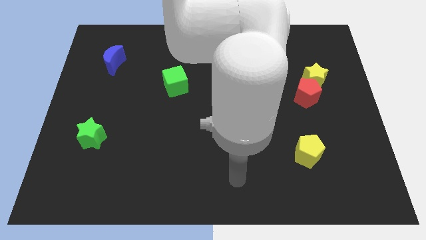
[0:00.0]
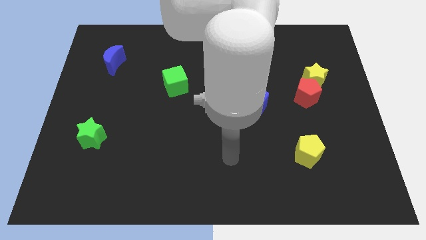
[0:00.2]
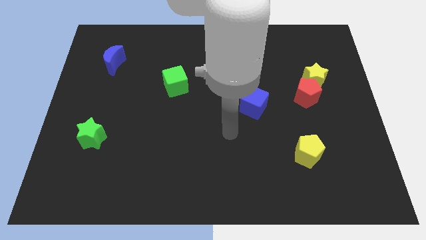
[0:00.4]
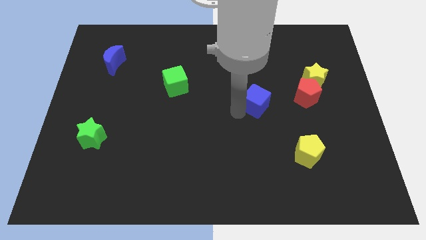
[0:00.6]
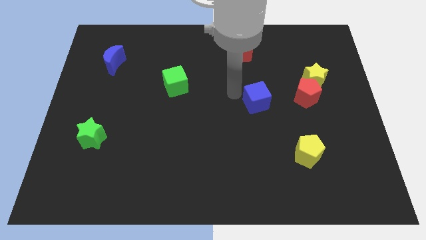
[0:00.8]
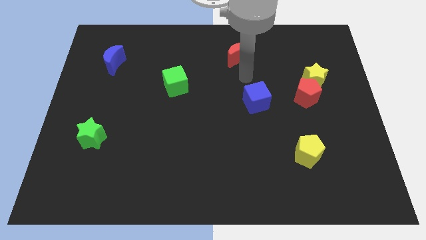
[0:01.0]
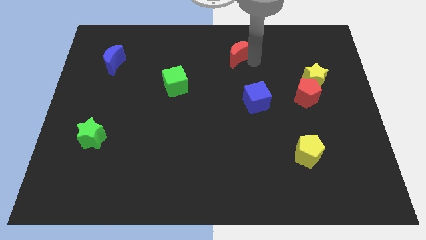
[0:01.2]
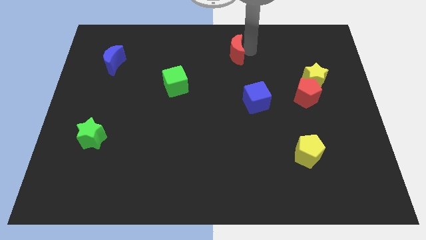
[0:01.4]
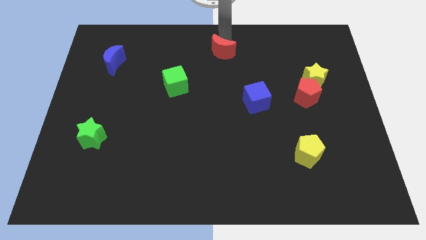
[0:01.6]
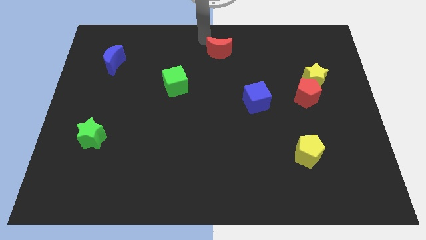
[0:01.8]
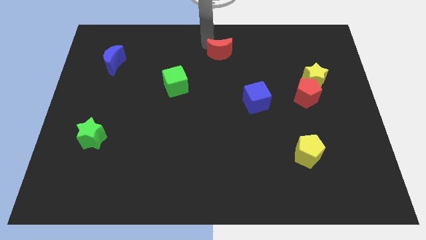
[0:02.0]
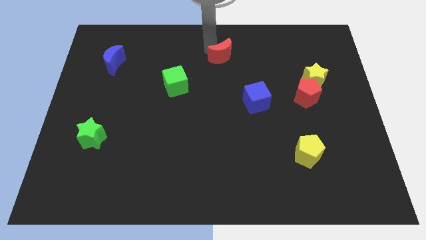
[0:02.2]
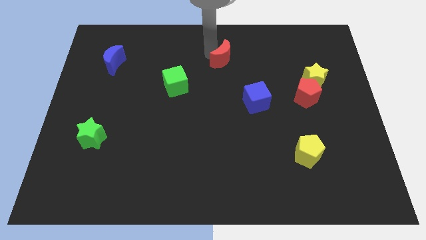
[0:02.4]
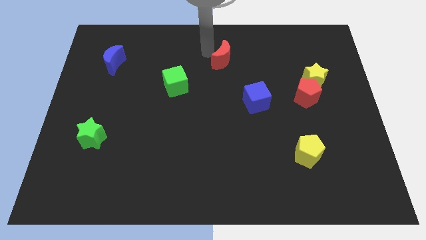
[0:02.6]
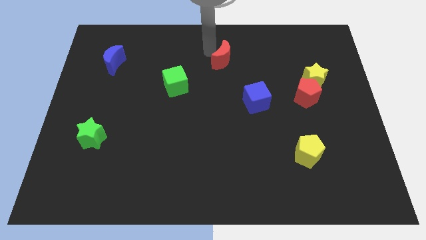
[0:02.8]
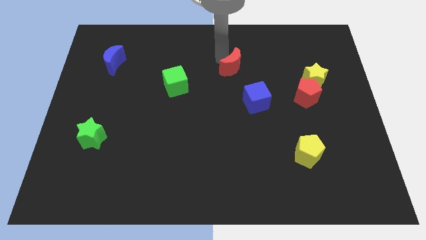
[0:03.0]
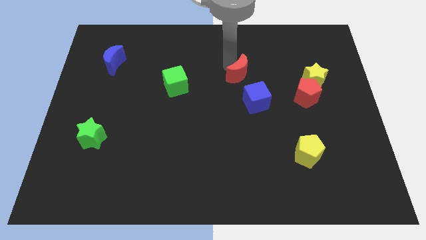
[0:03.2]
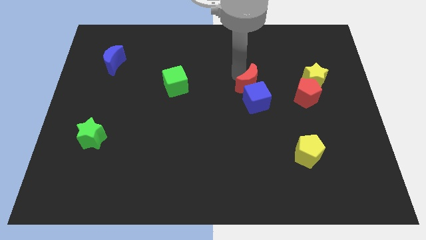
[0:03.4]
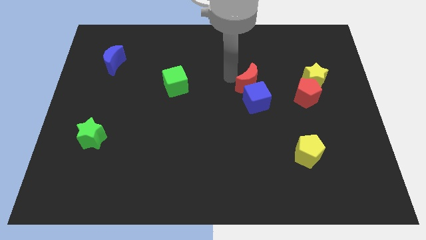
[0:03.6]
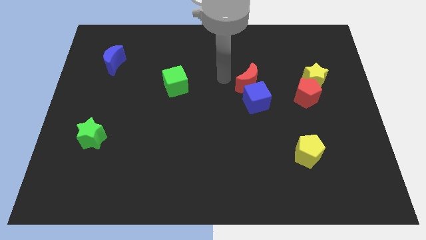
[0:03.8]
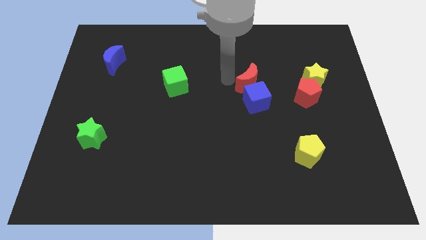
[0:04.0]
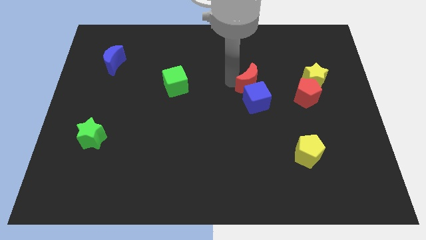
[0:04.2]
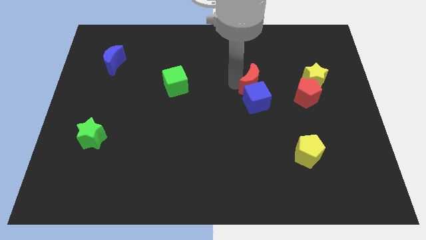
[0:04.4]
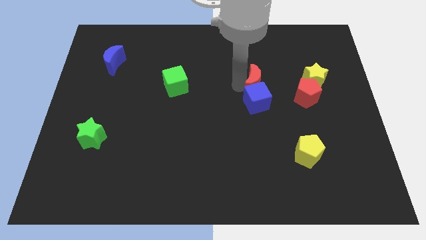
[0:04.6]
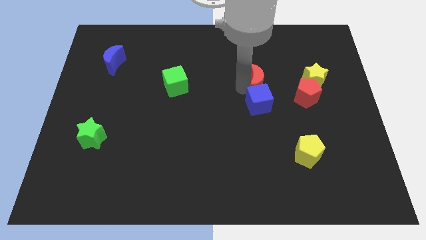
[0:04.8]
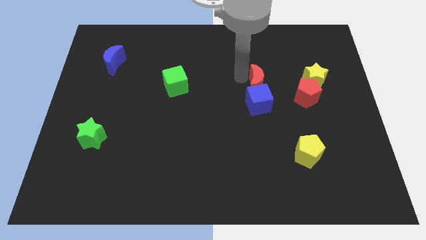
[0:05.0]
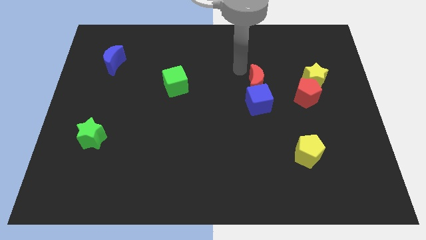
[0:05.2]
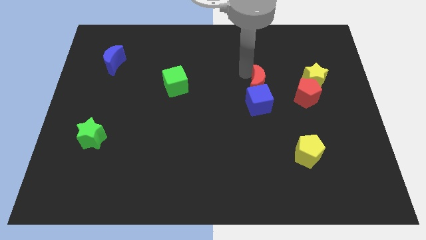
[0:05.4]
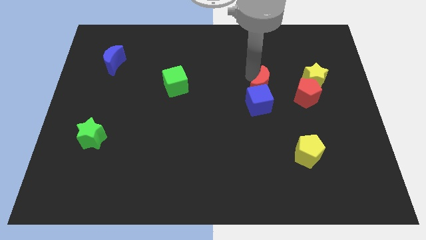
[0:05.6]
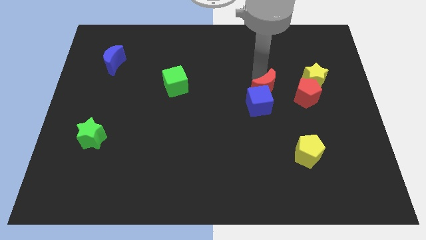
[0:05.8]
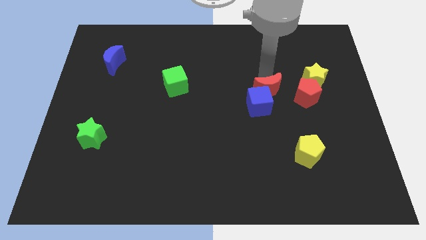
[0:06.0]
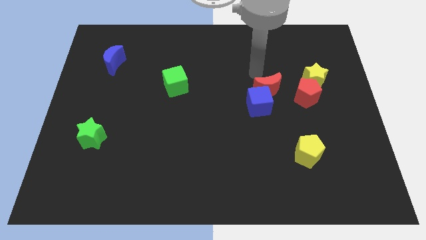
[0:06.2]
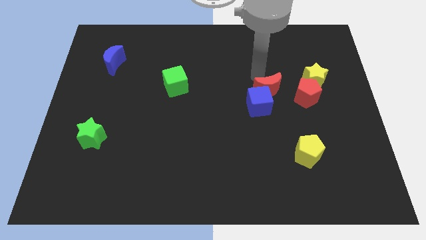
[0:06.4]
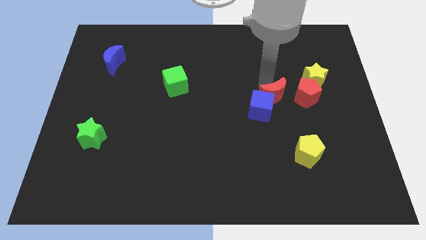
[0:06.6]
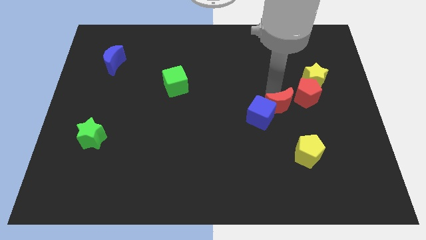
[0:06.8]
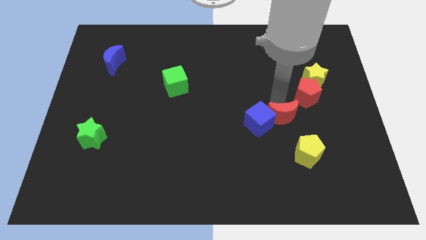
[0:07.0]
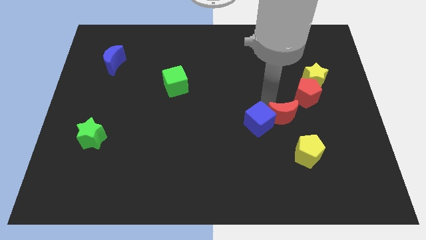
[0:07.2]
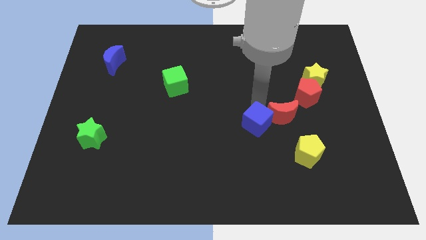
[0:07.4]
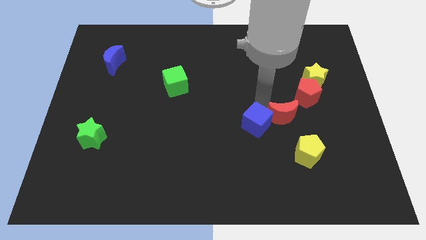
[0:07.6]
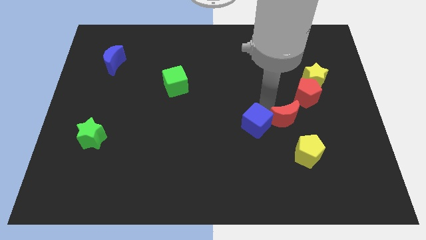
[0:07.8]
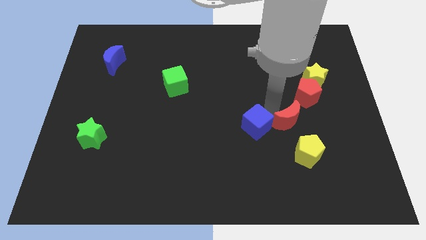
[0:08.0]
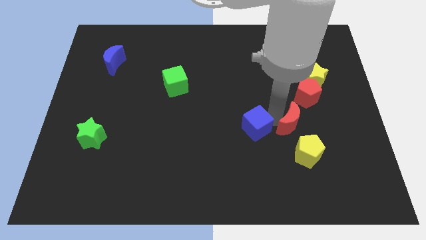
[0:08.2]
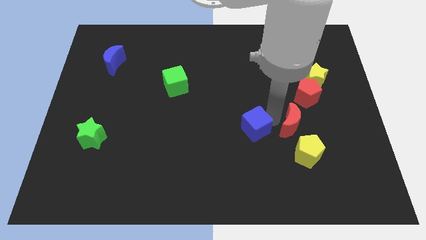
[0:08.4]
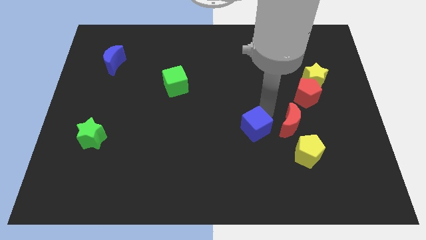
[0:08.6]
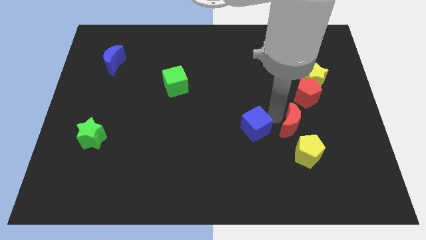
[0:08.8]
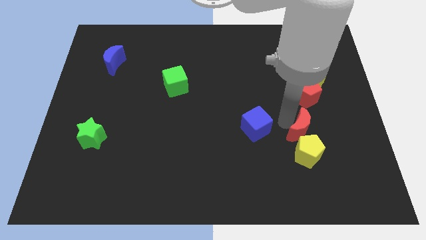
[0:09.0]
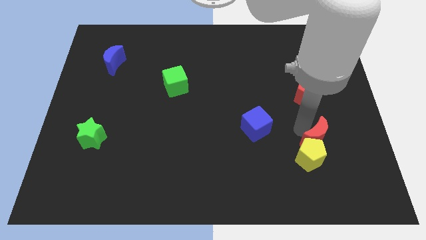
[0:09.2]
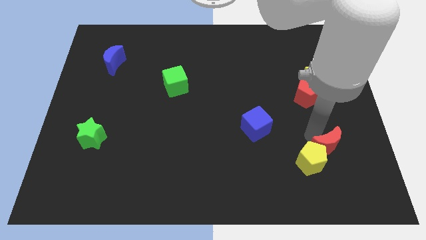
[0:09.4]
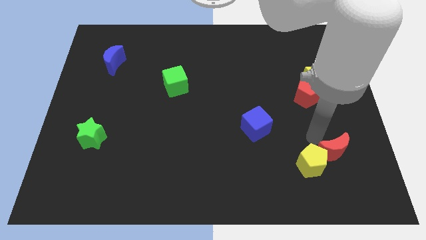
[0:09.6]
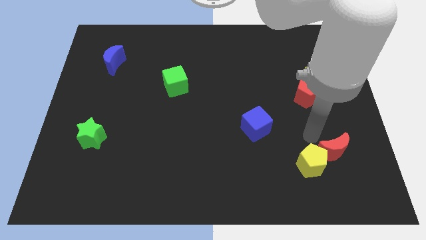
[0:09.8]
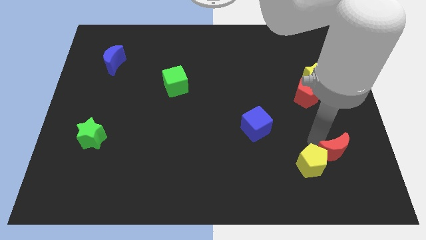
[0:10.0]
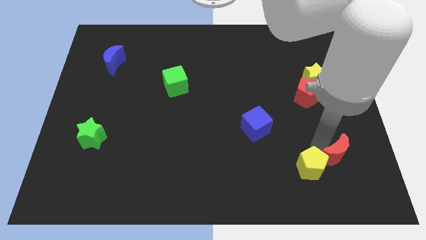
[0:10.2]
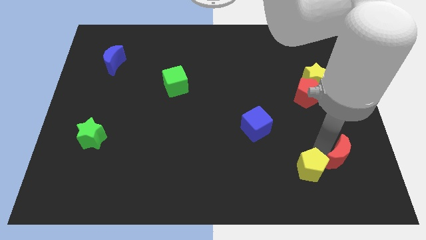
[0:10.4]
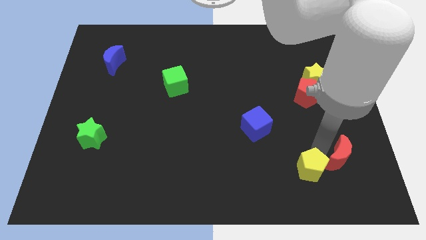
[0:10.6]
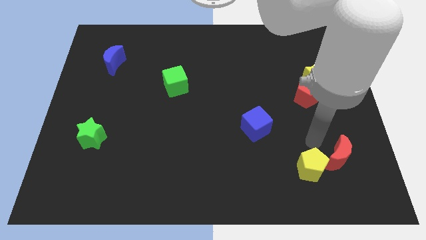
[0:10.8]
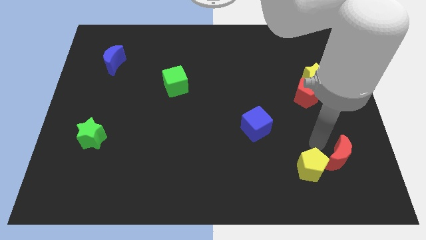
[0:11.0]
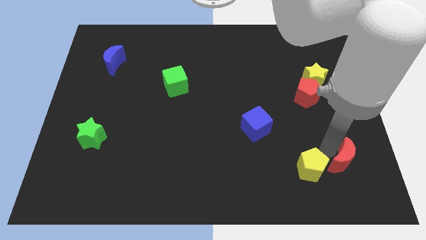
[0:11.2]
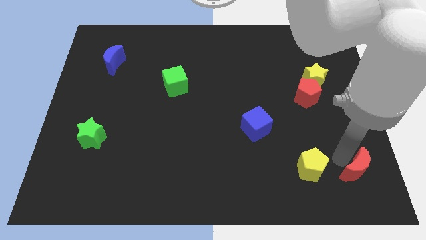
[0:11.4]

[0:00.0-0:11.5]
move the red moon to the bottom right

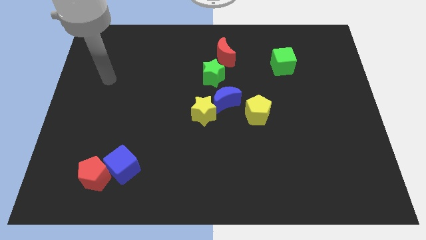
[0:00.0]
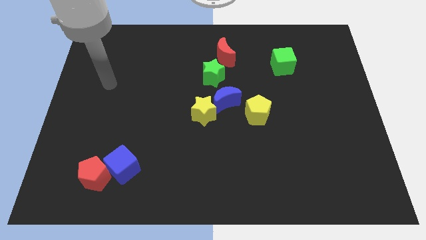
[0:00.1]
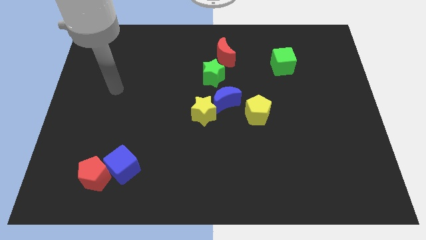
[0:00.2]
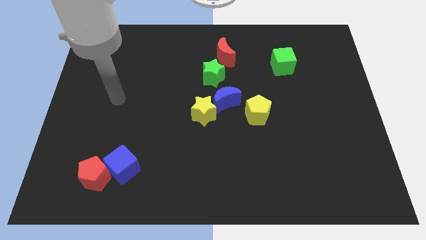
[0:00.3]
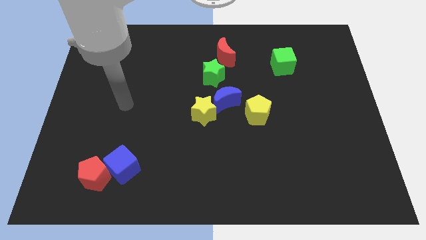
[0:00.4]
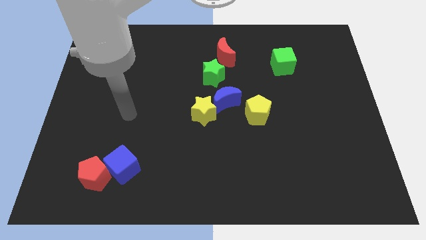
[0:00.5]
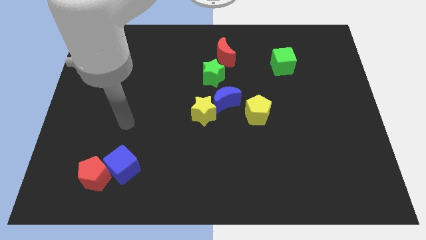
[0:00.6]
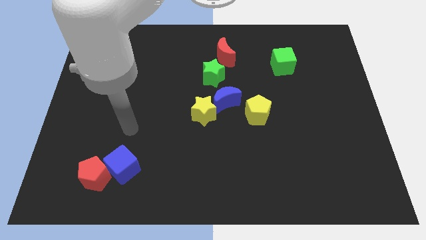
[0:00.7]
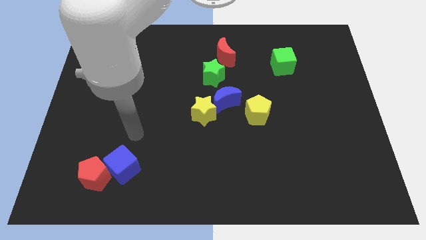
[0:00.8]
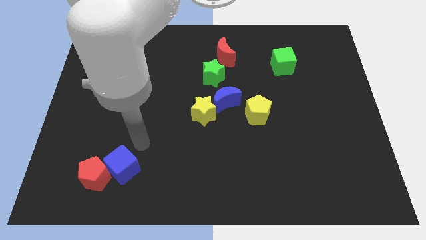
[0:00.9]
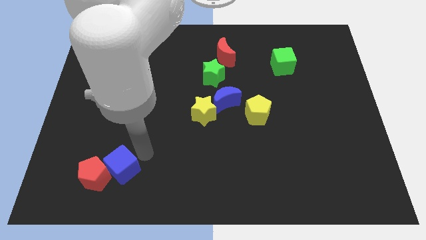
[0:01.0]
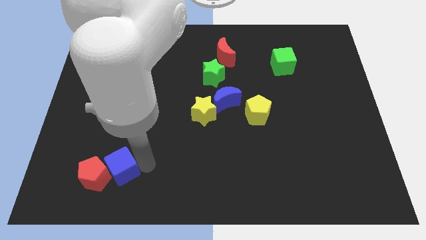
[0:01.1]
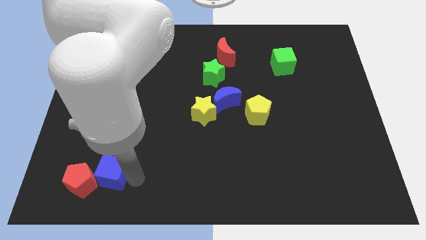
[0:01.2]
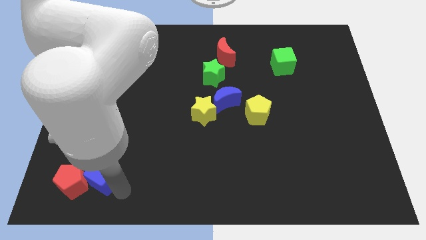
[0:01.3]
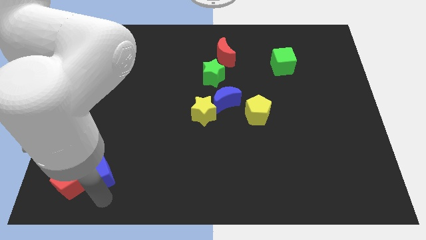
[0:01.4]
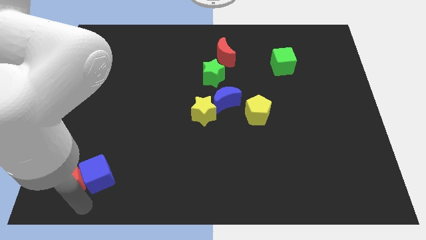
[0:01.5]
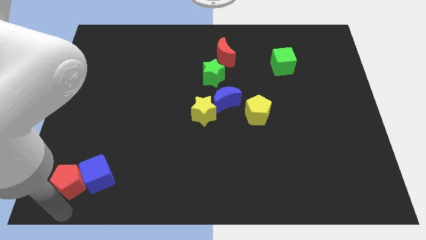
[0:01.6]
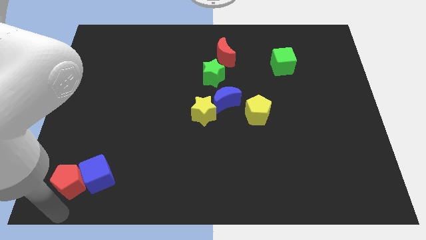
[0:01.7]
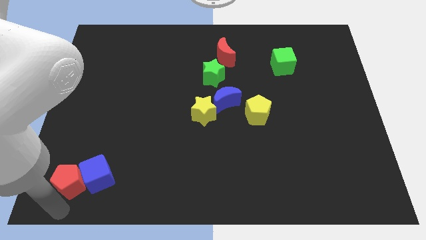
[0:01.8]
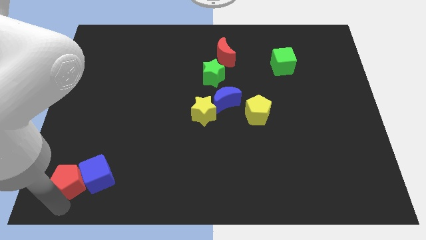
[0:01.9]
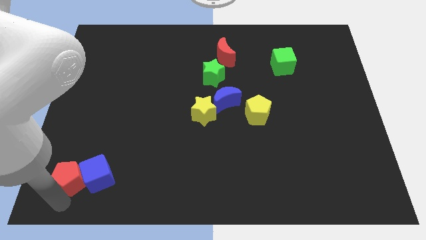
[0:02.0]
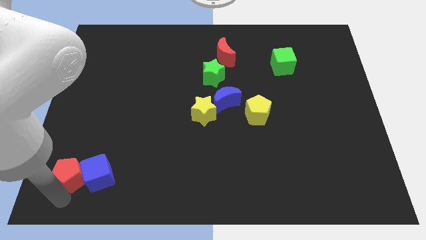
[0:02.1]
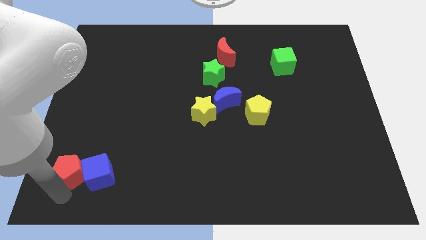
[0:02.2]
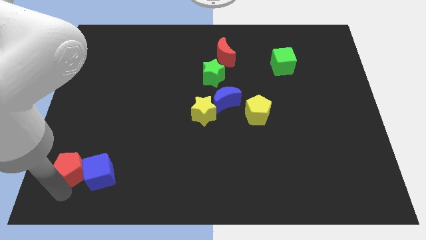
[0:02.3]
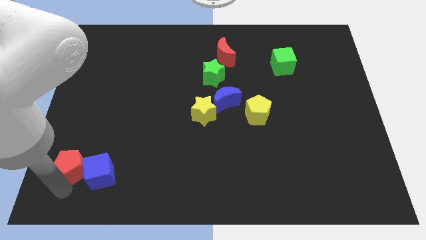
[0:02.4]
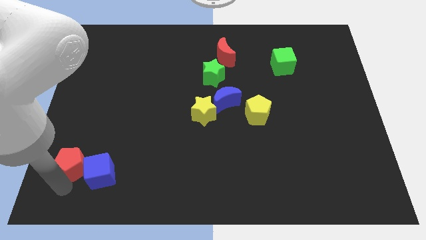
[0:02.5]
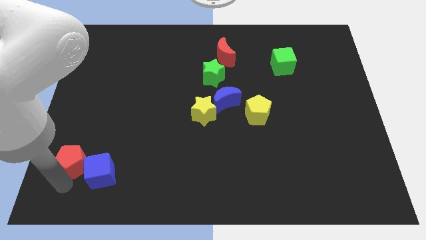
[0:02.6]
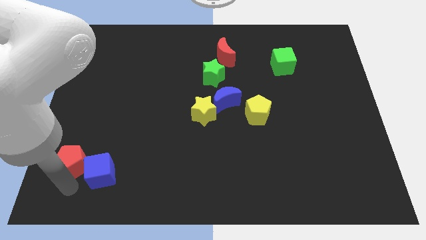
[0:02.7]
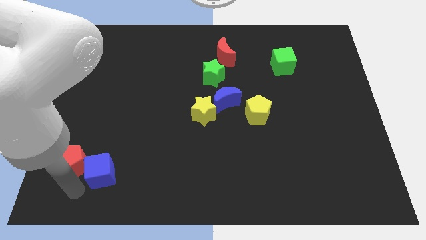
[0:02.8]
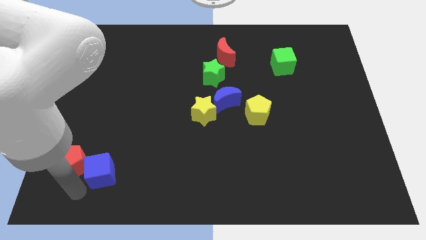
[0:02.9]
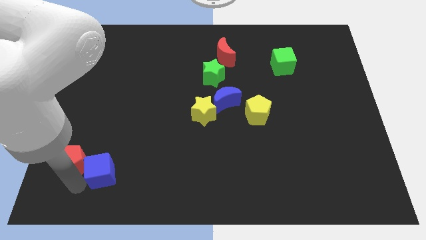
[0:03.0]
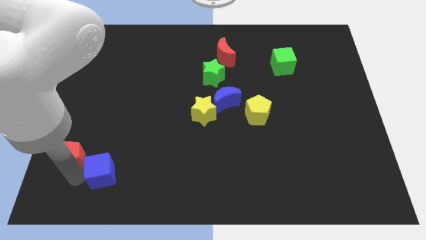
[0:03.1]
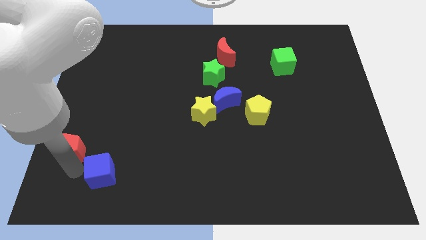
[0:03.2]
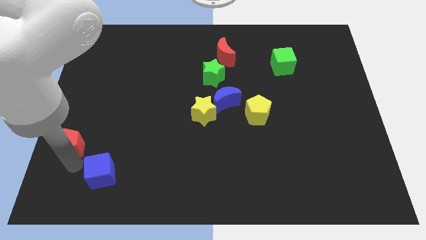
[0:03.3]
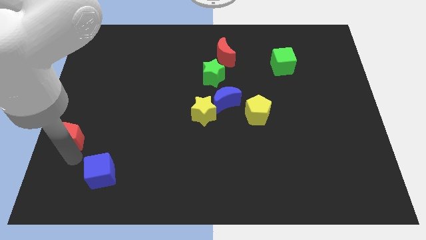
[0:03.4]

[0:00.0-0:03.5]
move the red pentagon to the left side
